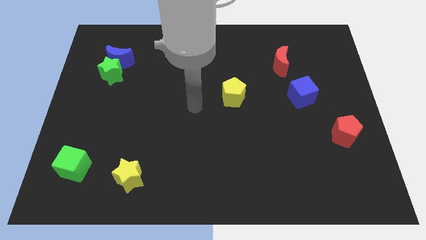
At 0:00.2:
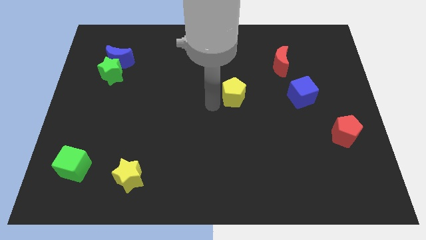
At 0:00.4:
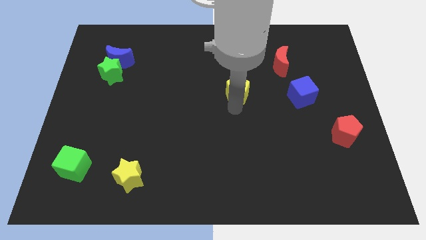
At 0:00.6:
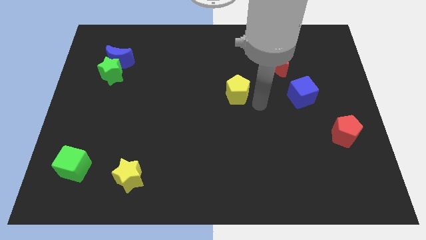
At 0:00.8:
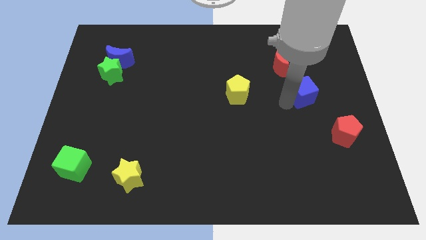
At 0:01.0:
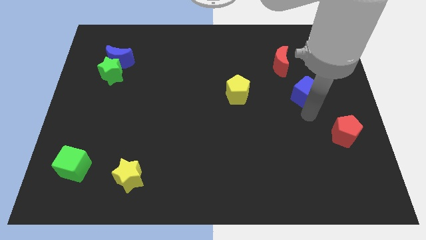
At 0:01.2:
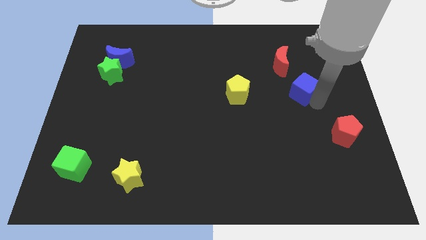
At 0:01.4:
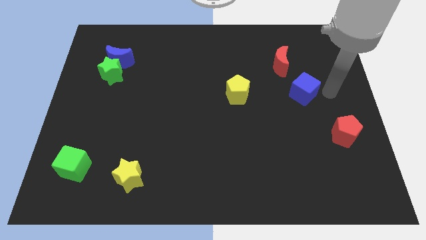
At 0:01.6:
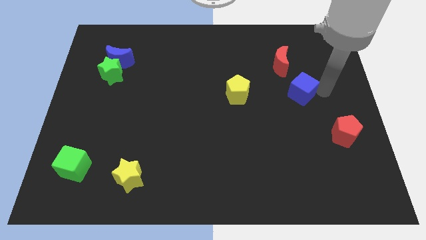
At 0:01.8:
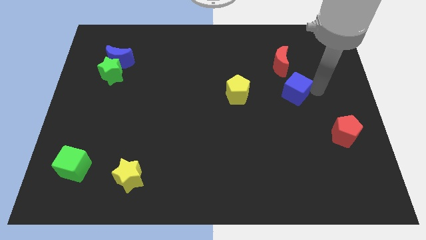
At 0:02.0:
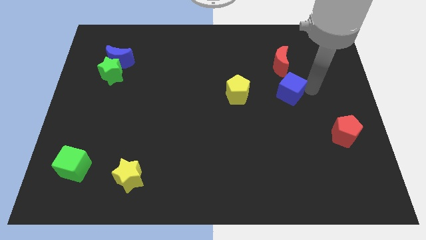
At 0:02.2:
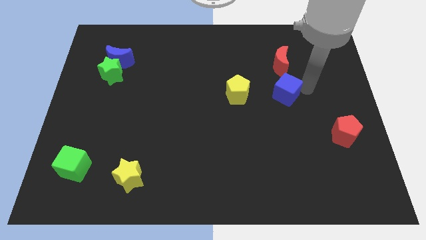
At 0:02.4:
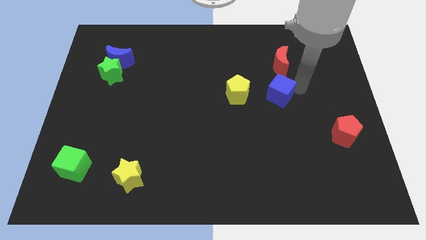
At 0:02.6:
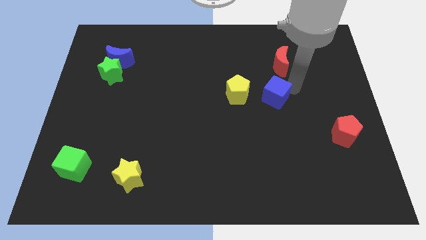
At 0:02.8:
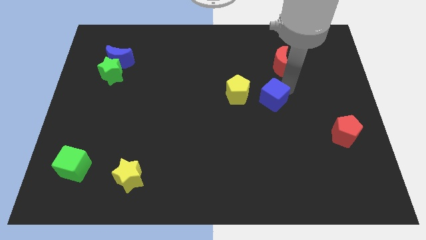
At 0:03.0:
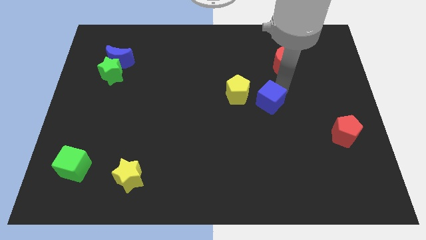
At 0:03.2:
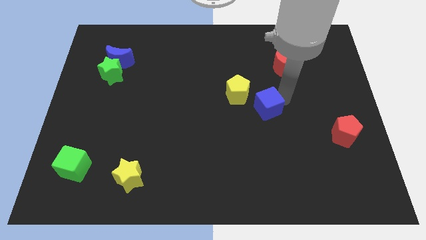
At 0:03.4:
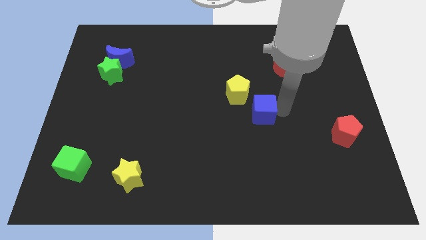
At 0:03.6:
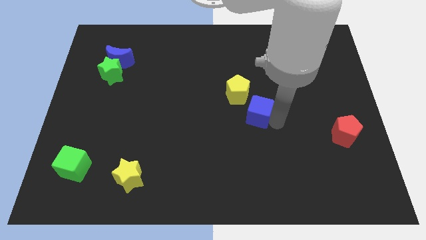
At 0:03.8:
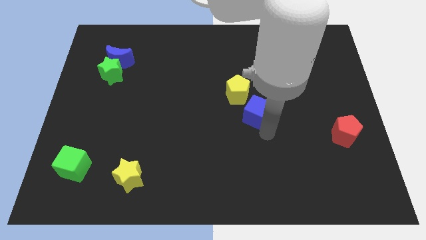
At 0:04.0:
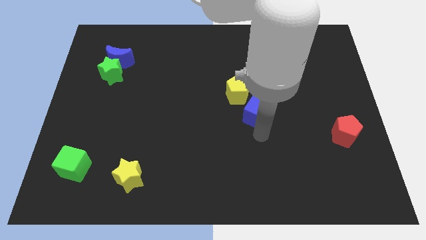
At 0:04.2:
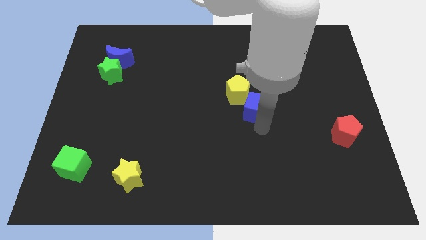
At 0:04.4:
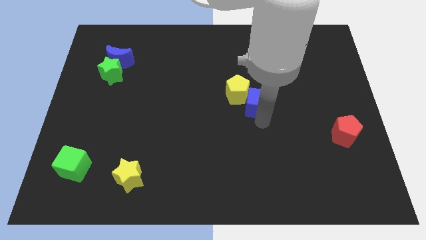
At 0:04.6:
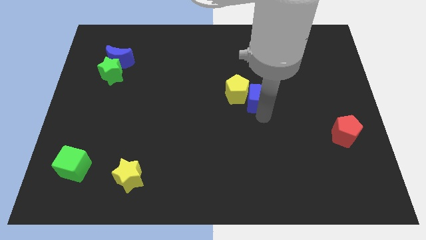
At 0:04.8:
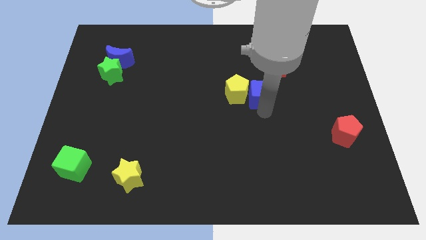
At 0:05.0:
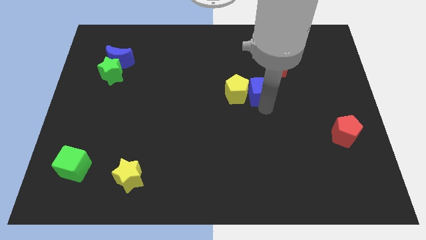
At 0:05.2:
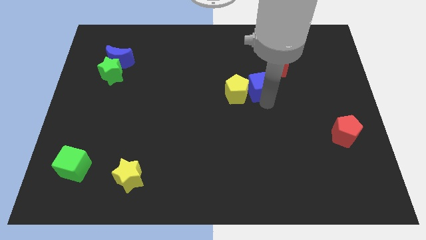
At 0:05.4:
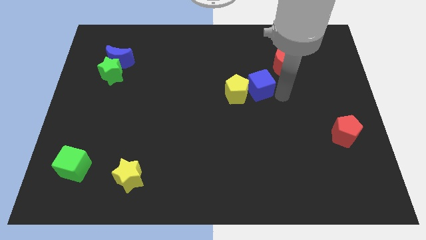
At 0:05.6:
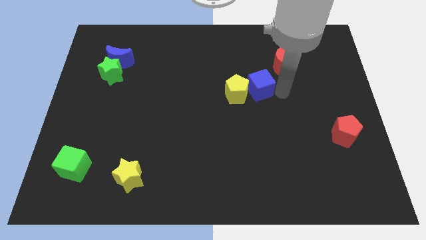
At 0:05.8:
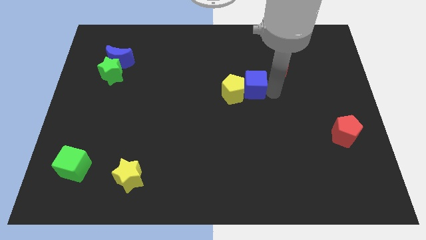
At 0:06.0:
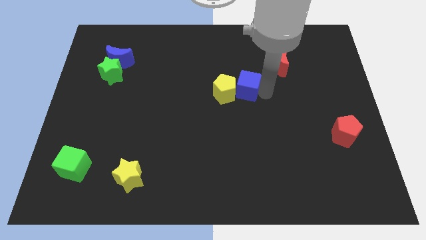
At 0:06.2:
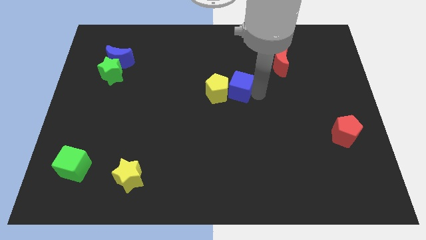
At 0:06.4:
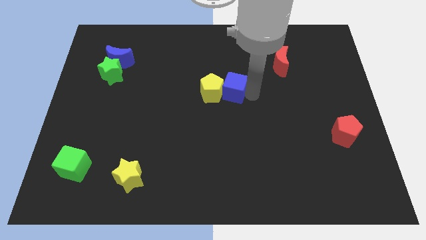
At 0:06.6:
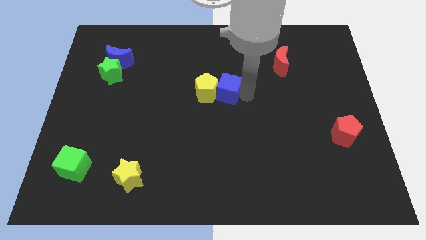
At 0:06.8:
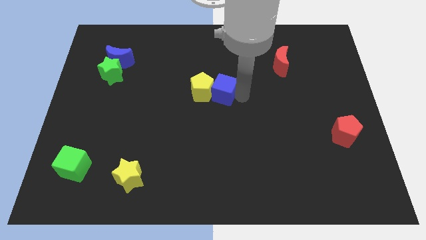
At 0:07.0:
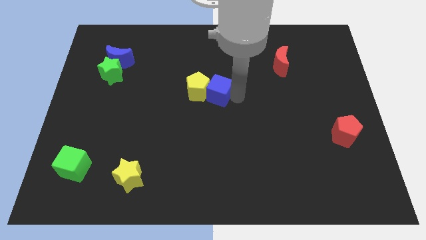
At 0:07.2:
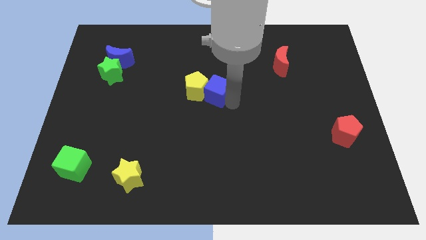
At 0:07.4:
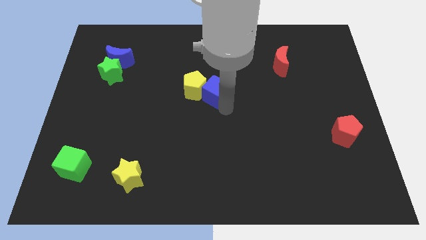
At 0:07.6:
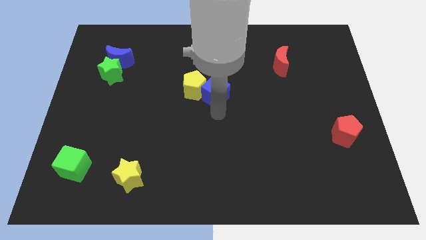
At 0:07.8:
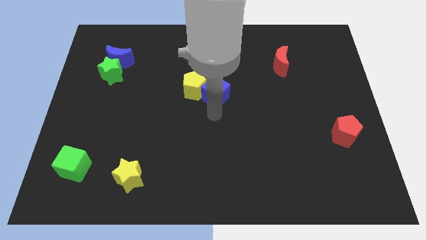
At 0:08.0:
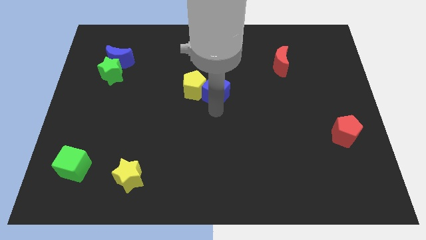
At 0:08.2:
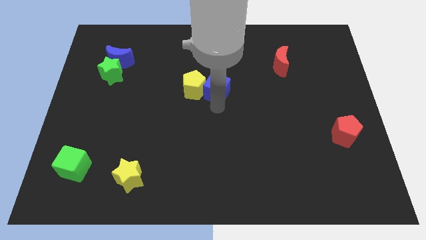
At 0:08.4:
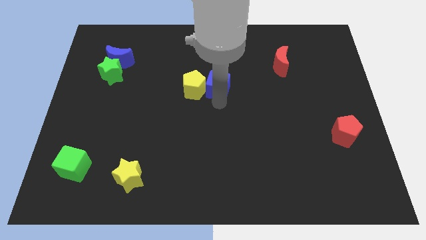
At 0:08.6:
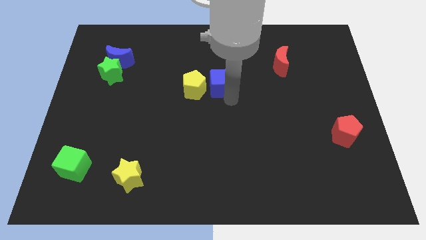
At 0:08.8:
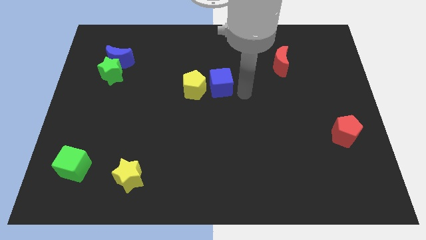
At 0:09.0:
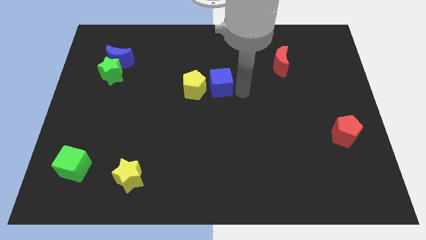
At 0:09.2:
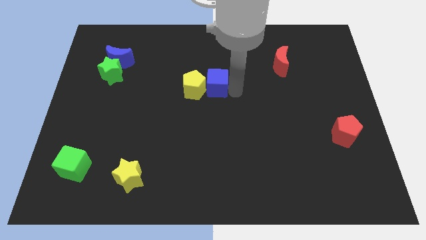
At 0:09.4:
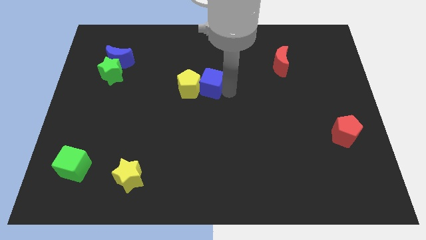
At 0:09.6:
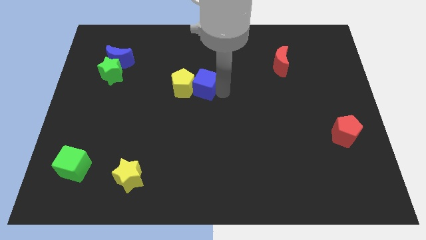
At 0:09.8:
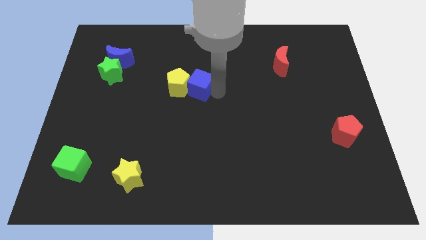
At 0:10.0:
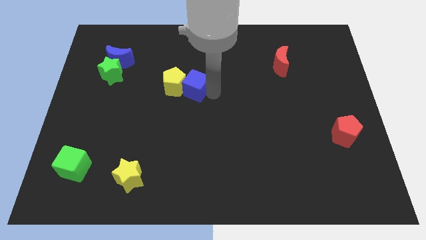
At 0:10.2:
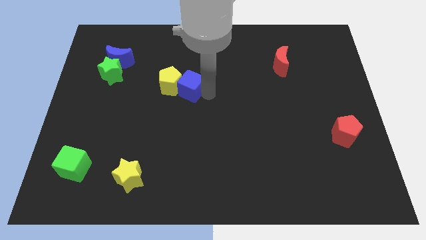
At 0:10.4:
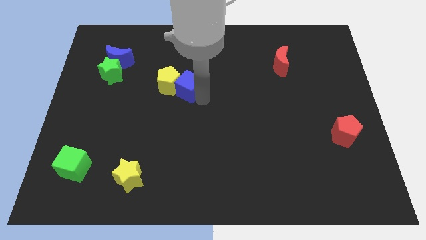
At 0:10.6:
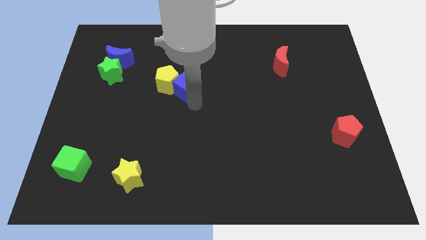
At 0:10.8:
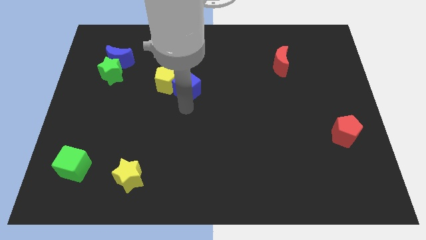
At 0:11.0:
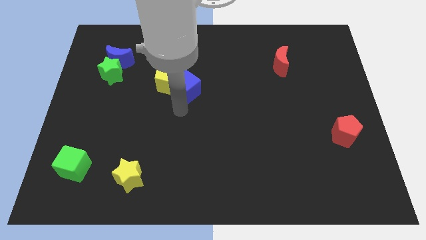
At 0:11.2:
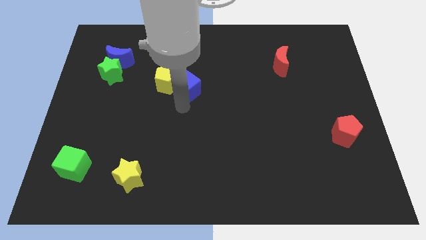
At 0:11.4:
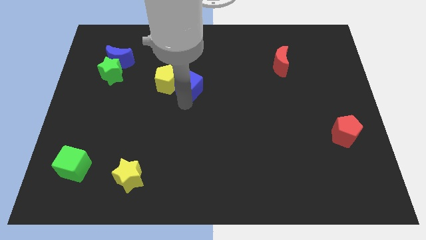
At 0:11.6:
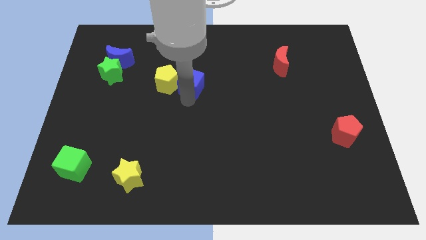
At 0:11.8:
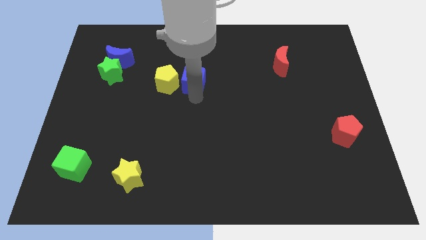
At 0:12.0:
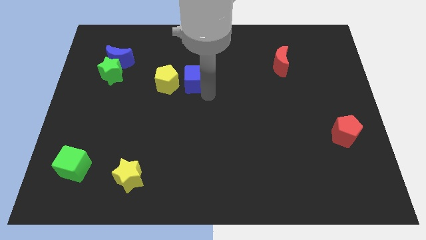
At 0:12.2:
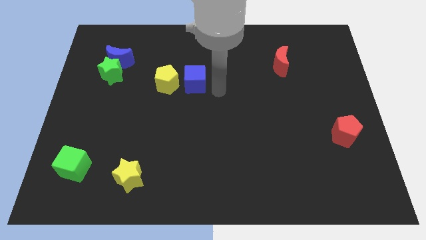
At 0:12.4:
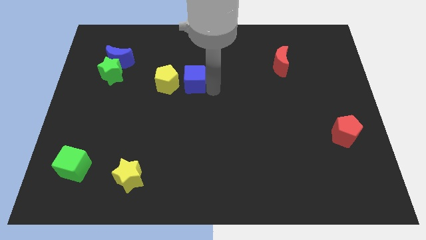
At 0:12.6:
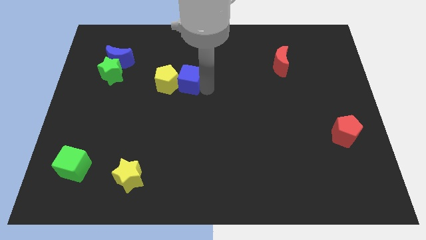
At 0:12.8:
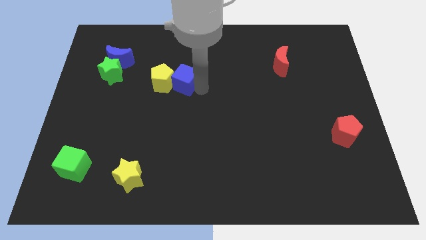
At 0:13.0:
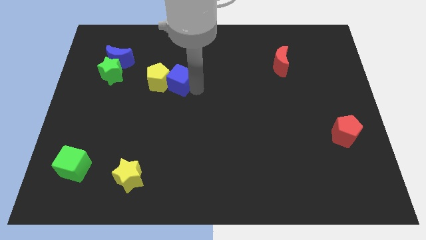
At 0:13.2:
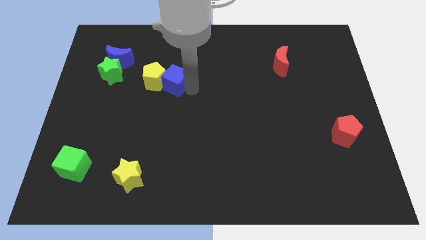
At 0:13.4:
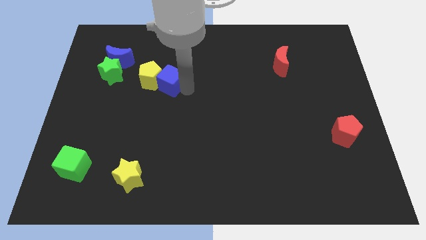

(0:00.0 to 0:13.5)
put the blue cube just right of the green star

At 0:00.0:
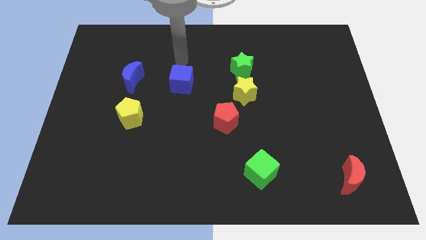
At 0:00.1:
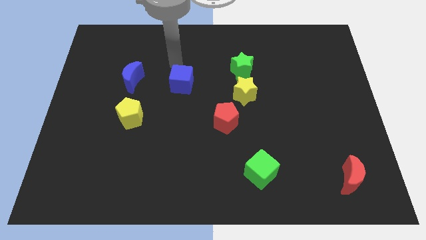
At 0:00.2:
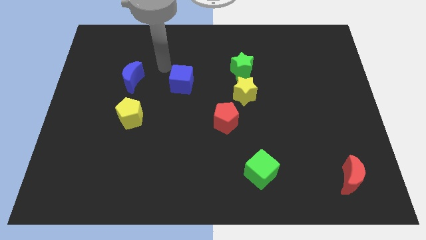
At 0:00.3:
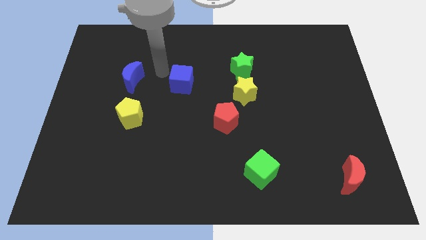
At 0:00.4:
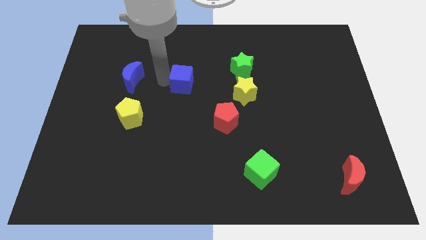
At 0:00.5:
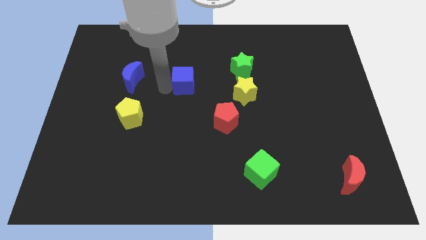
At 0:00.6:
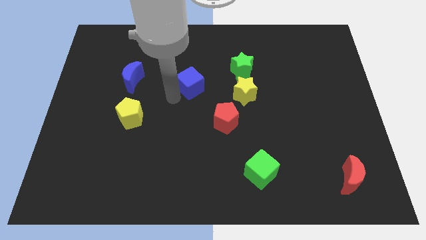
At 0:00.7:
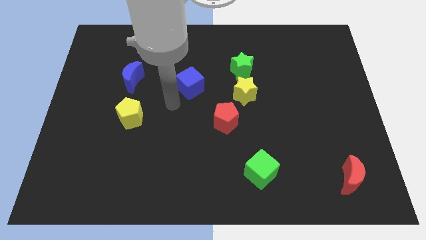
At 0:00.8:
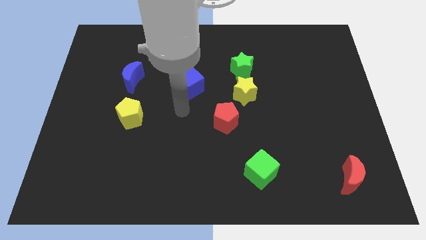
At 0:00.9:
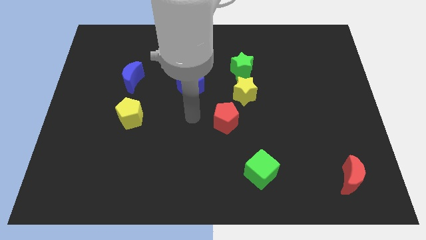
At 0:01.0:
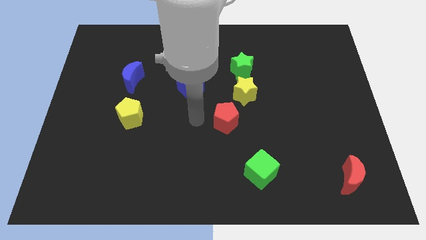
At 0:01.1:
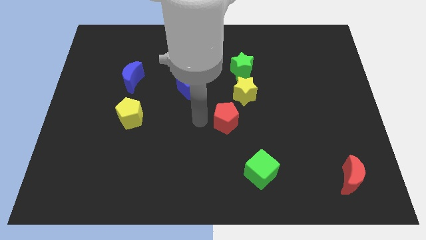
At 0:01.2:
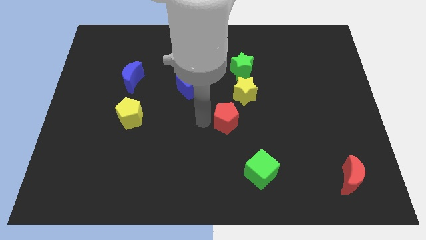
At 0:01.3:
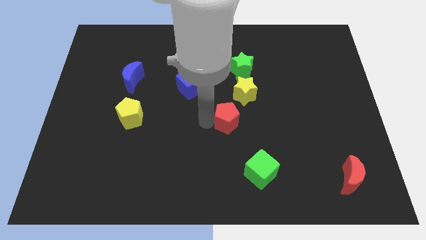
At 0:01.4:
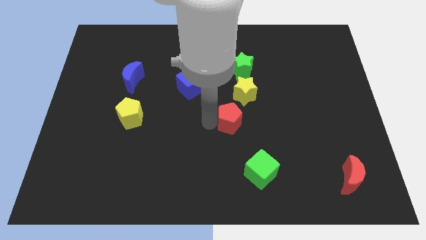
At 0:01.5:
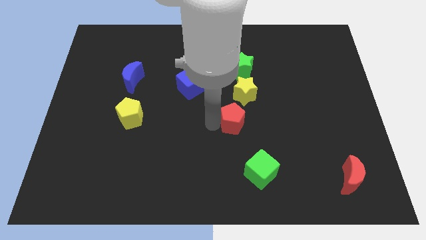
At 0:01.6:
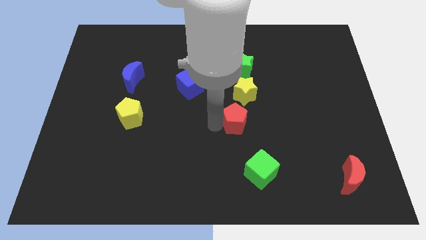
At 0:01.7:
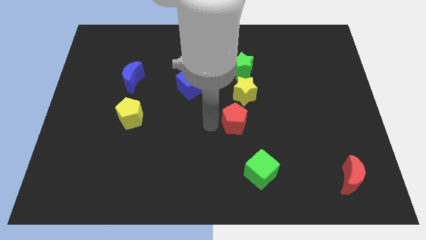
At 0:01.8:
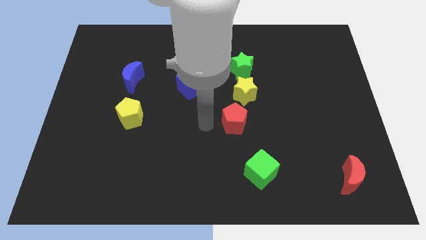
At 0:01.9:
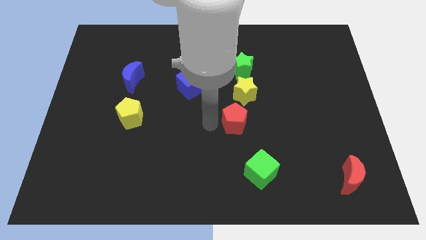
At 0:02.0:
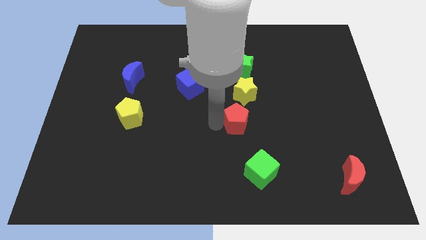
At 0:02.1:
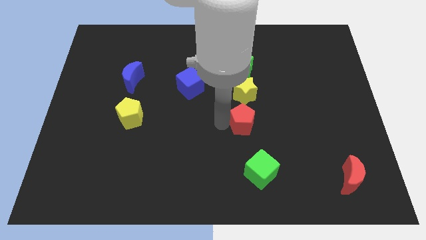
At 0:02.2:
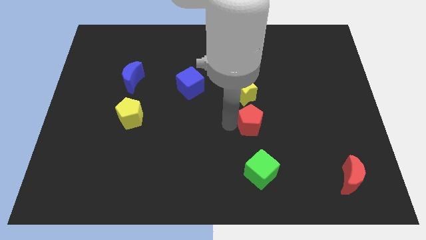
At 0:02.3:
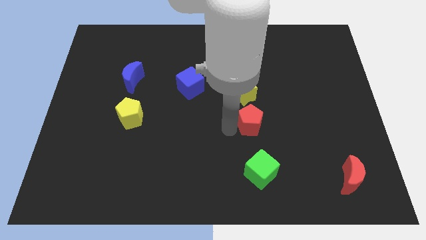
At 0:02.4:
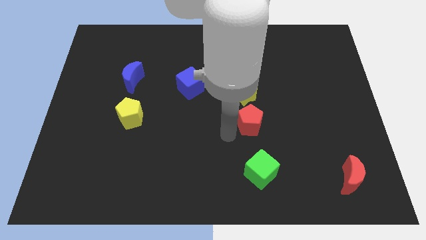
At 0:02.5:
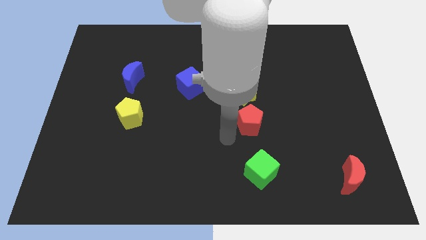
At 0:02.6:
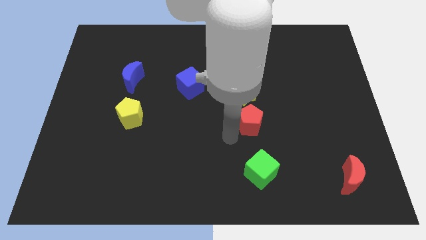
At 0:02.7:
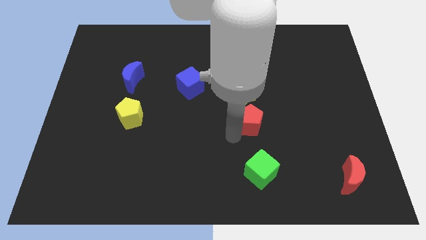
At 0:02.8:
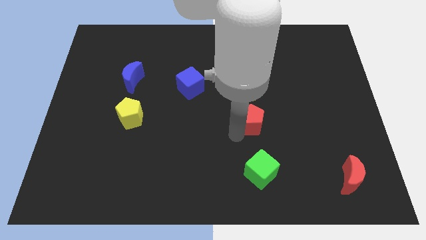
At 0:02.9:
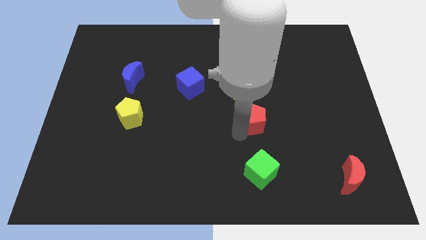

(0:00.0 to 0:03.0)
move the red pentagon to the bottom right of the yellow star
